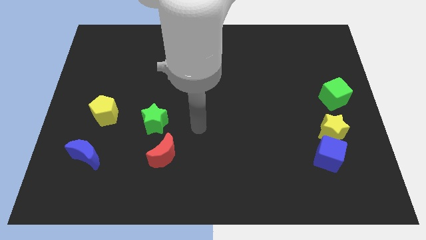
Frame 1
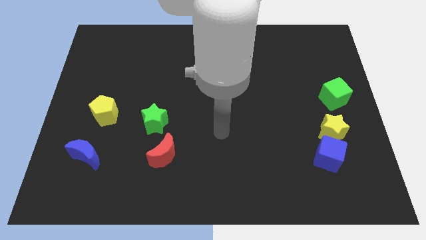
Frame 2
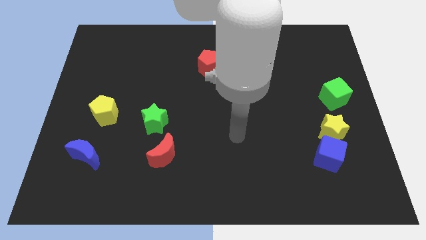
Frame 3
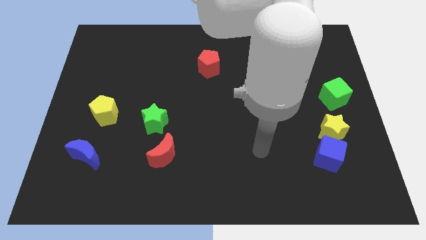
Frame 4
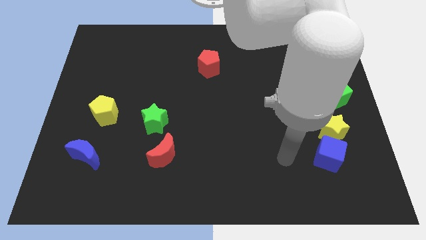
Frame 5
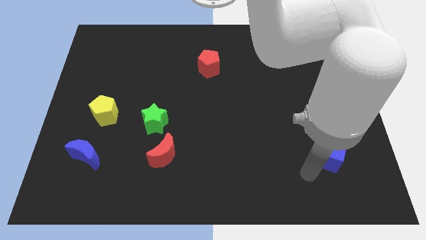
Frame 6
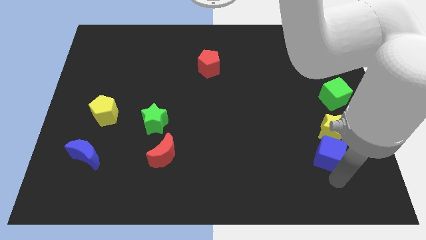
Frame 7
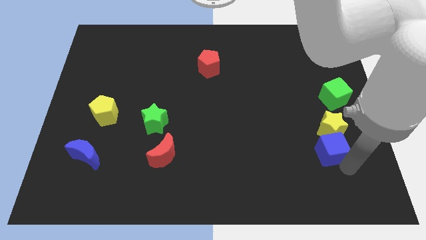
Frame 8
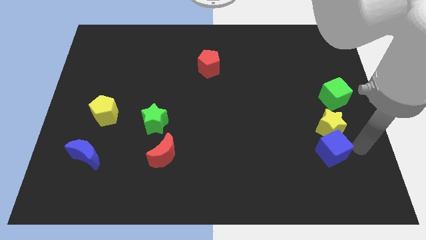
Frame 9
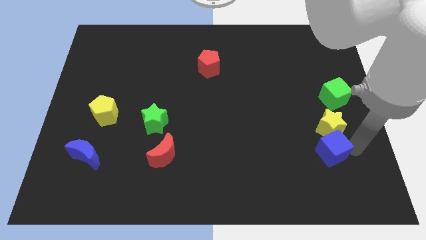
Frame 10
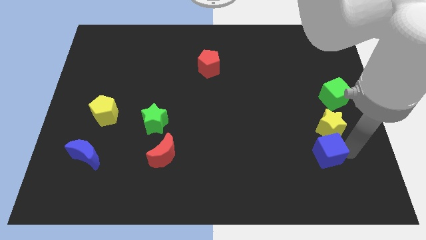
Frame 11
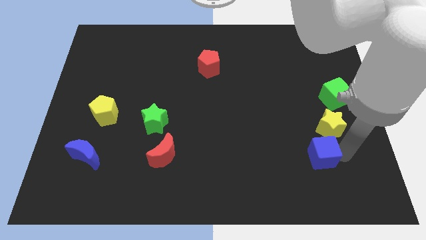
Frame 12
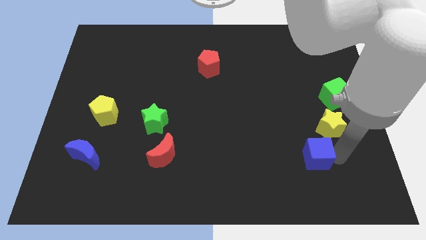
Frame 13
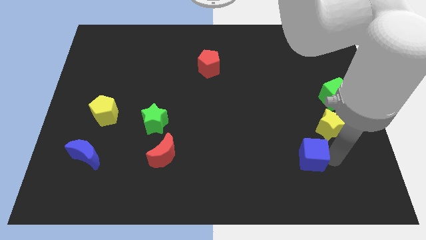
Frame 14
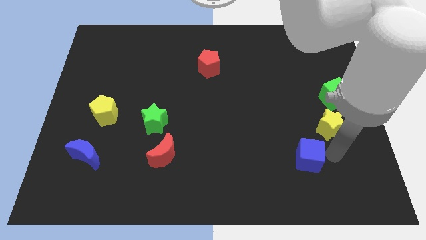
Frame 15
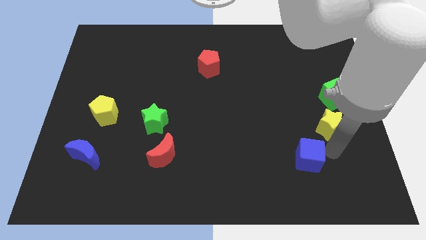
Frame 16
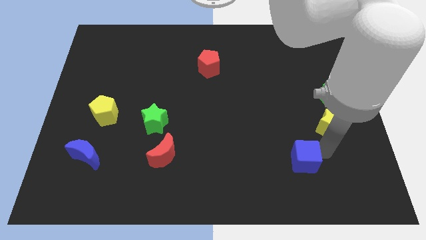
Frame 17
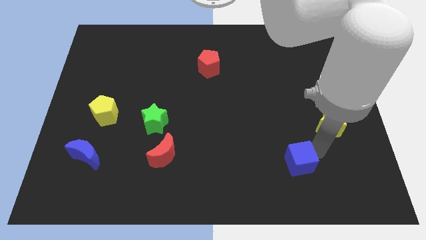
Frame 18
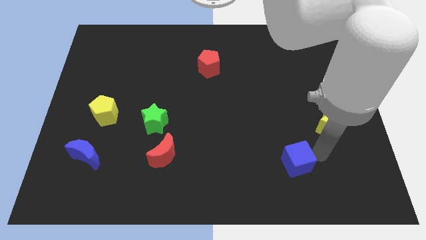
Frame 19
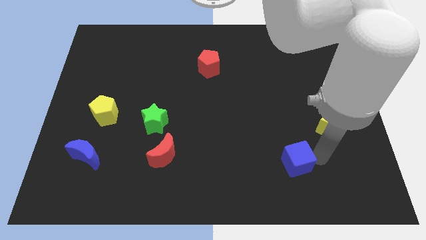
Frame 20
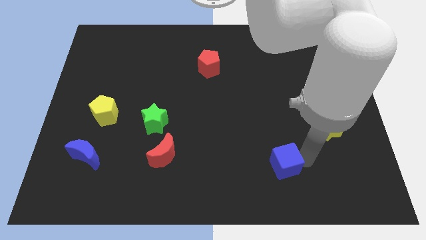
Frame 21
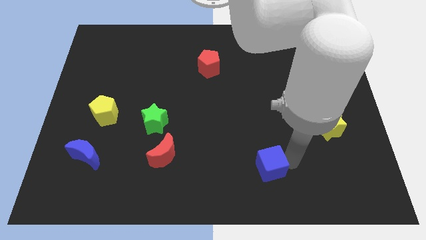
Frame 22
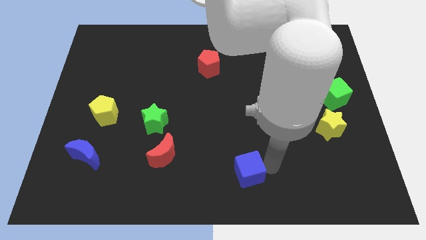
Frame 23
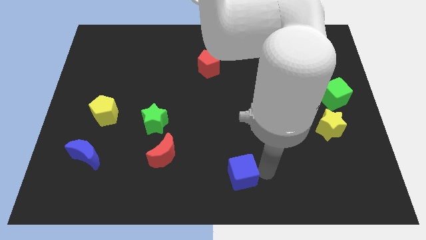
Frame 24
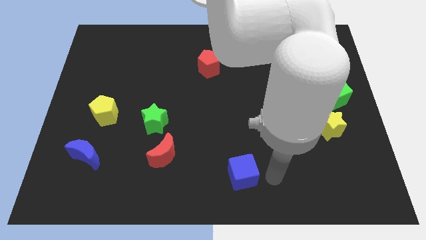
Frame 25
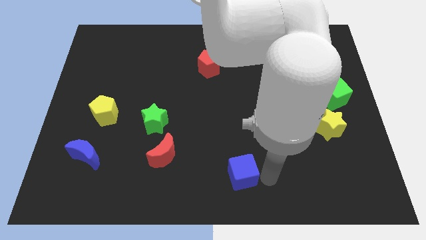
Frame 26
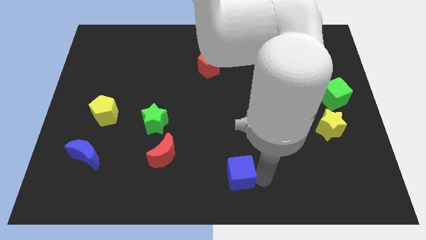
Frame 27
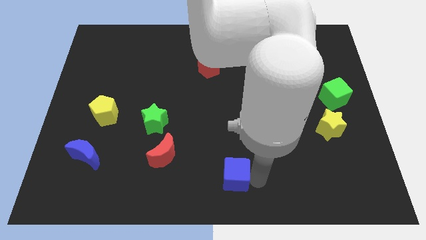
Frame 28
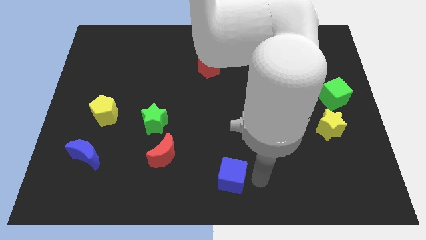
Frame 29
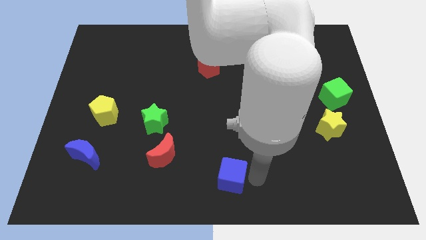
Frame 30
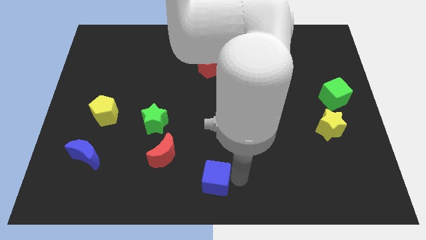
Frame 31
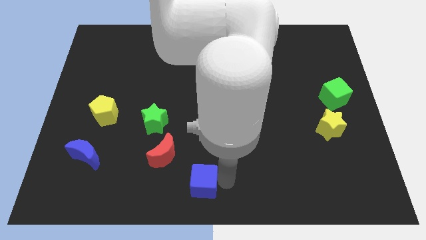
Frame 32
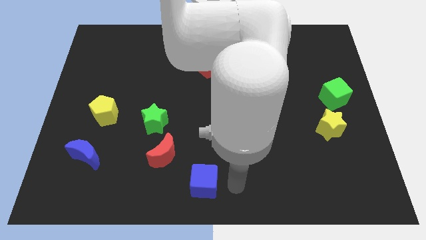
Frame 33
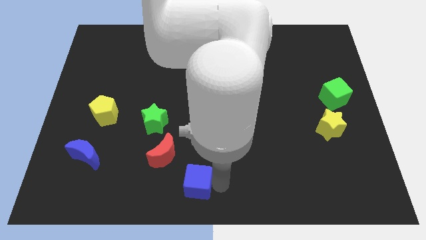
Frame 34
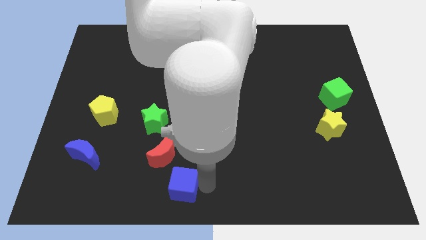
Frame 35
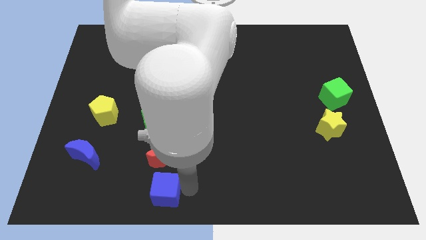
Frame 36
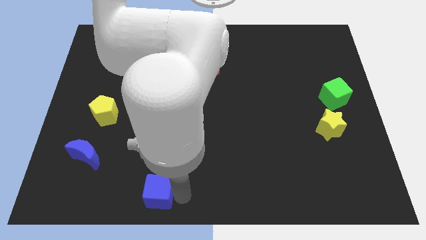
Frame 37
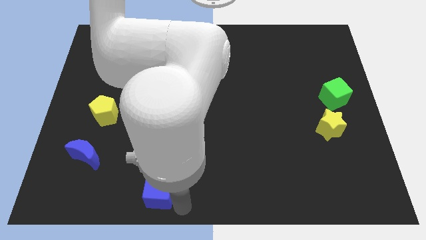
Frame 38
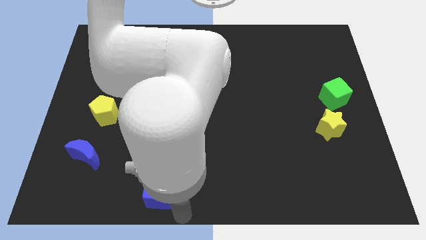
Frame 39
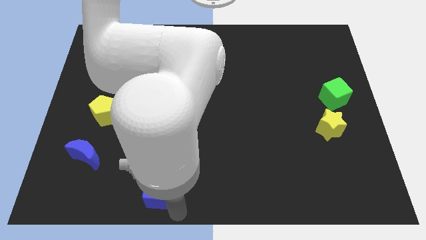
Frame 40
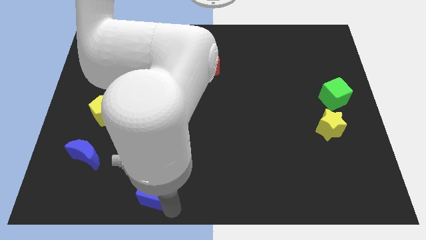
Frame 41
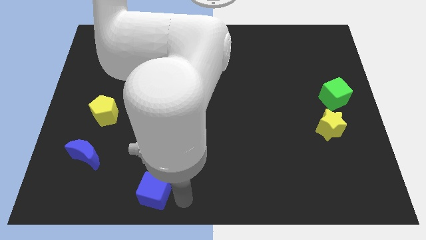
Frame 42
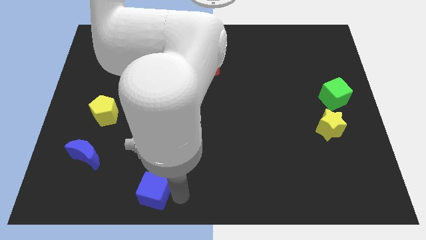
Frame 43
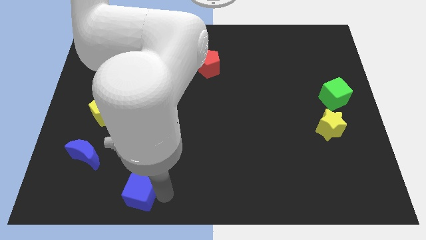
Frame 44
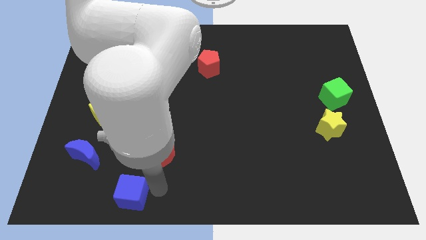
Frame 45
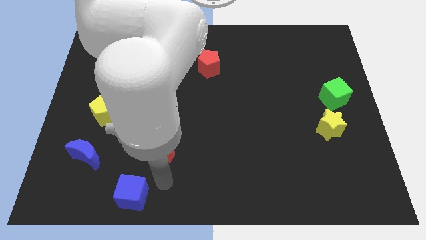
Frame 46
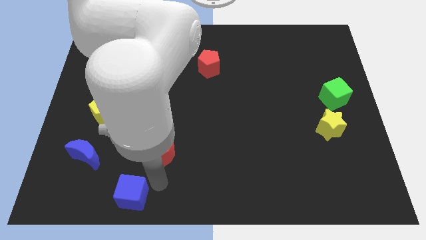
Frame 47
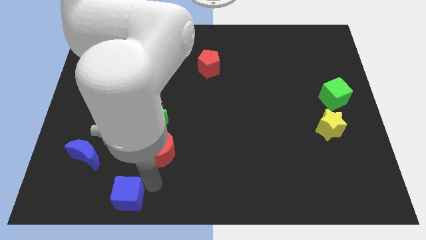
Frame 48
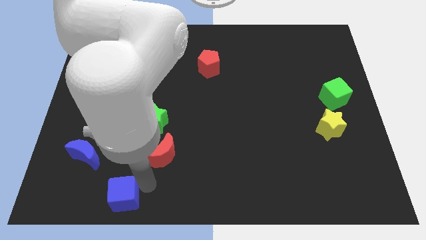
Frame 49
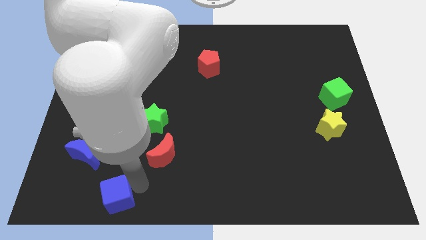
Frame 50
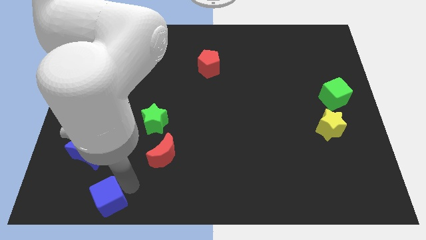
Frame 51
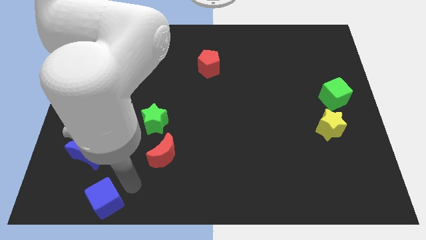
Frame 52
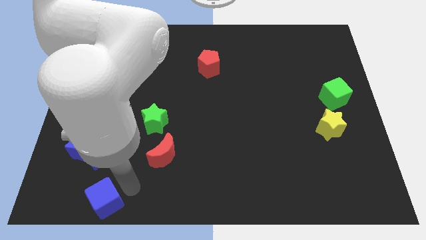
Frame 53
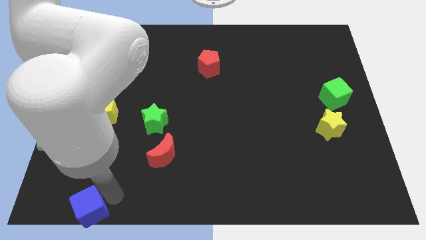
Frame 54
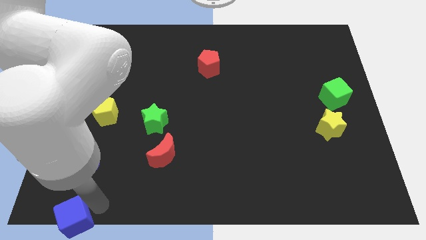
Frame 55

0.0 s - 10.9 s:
move the blue cube to the lower left corner

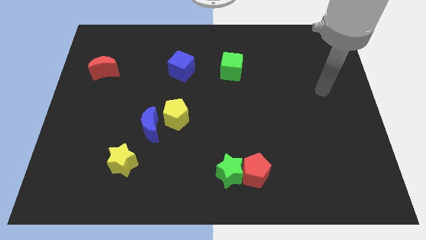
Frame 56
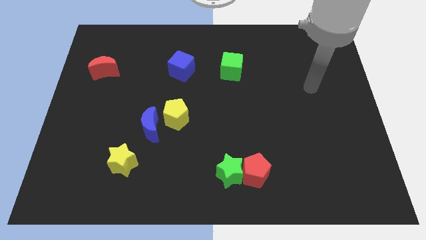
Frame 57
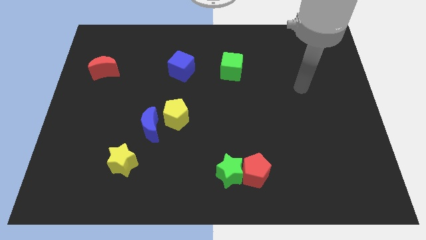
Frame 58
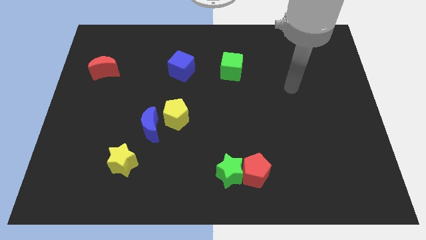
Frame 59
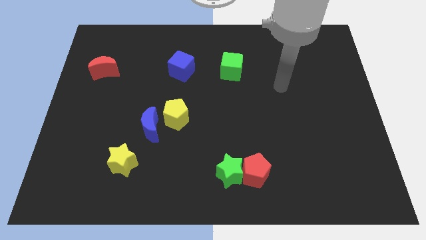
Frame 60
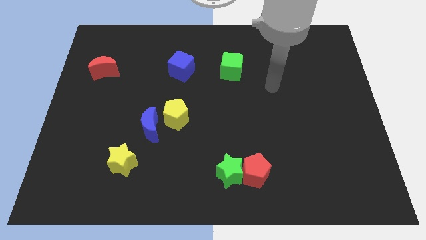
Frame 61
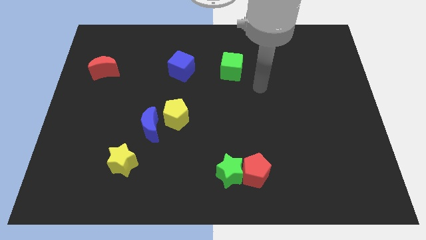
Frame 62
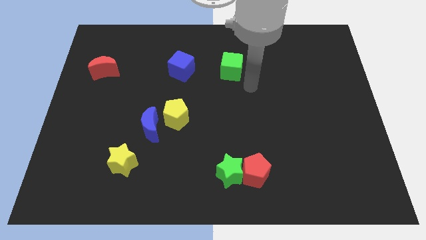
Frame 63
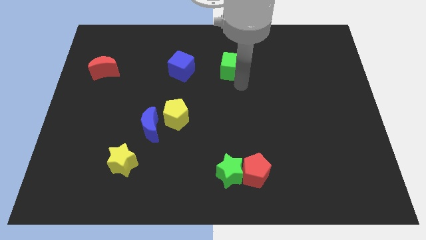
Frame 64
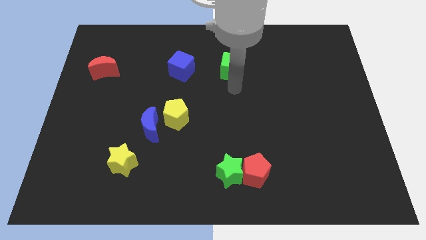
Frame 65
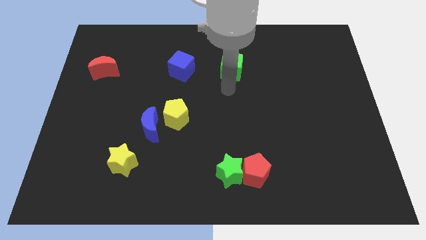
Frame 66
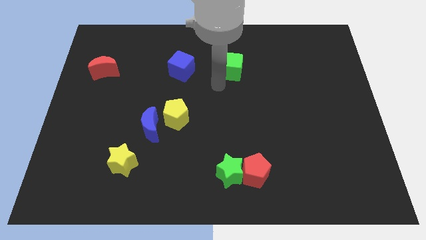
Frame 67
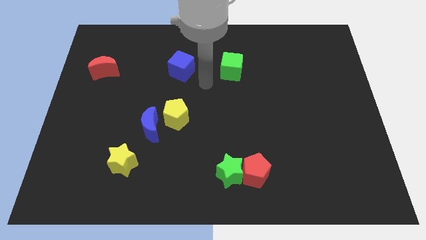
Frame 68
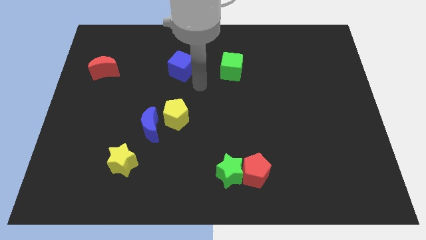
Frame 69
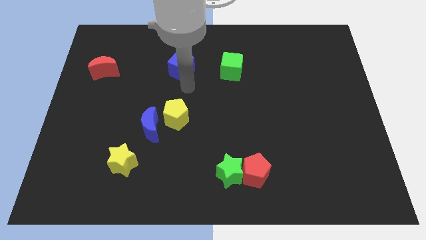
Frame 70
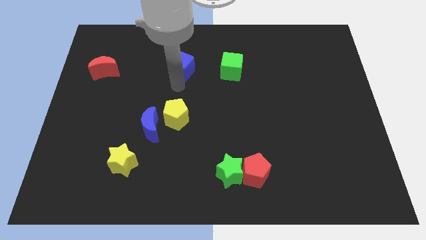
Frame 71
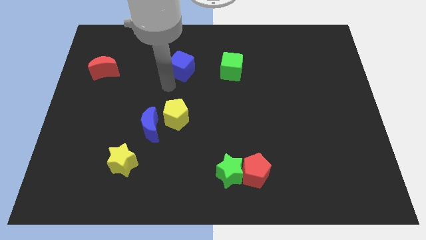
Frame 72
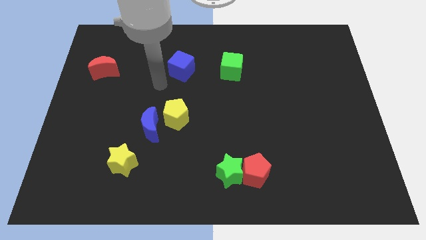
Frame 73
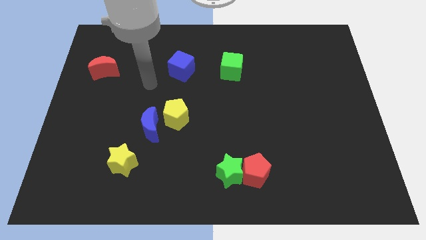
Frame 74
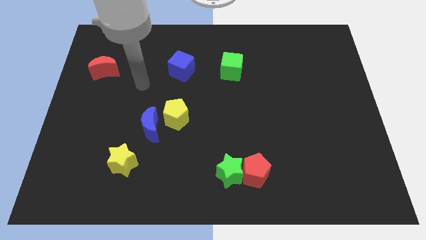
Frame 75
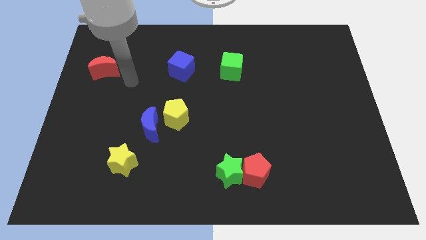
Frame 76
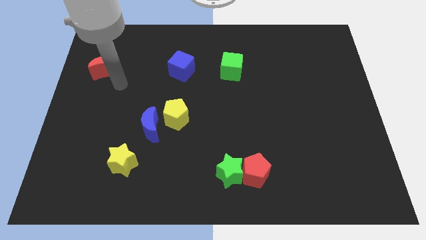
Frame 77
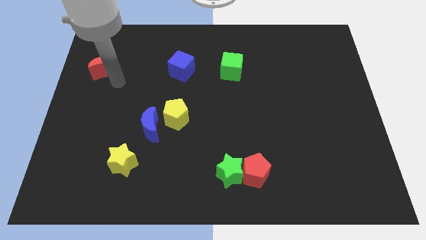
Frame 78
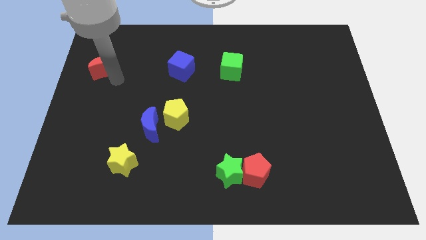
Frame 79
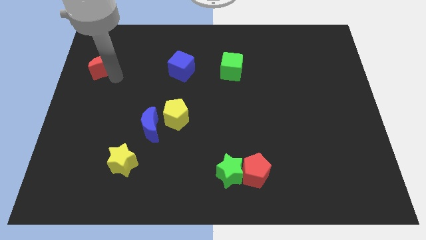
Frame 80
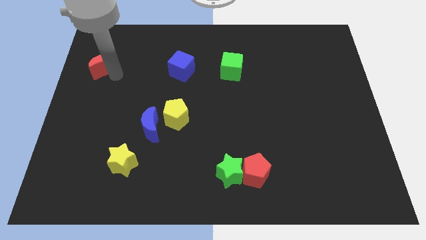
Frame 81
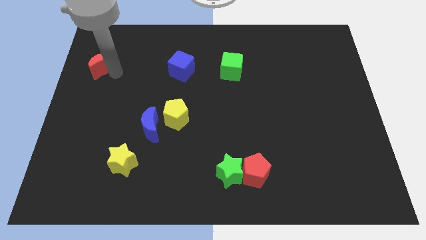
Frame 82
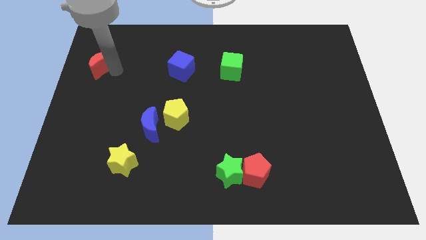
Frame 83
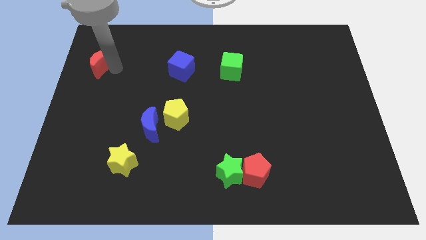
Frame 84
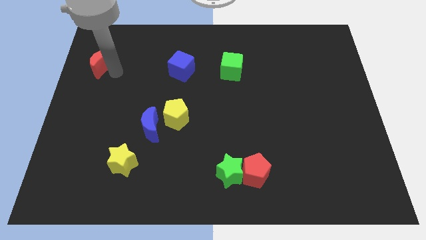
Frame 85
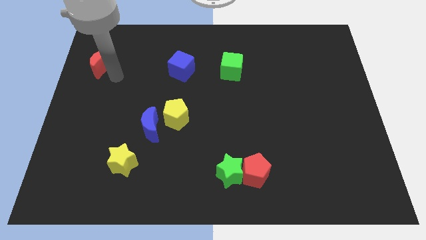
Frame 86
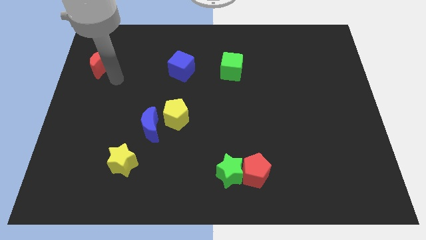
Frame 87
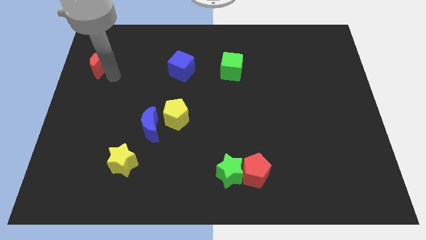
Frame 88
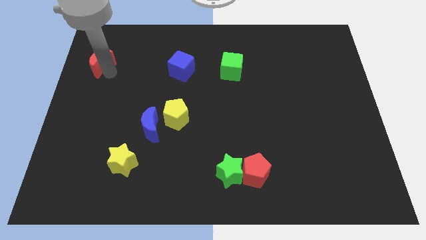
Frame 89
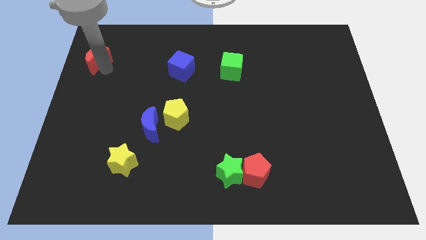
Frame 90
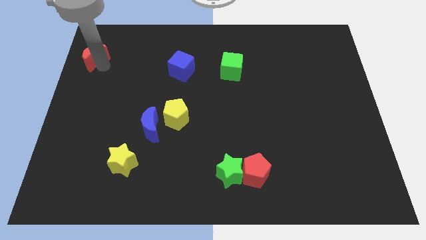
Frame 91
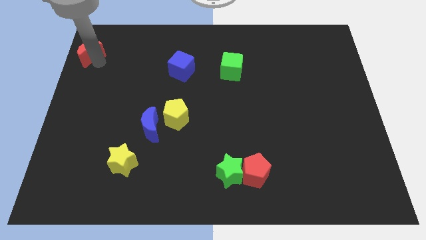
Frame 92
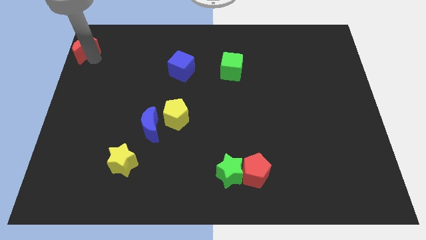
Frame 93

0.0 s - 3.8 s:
push the red moon to the top left corner
